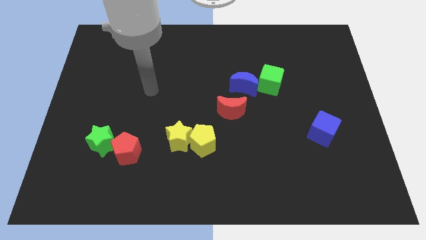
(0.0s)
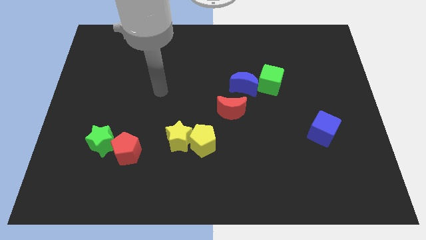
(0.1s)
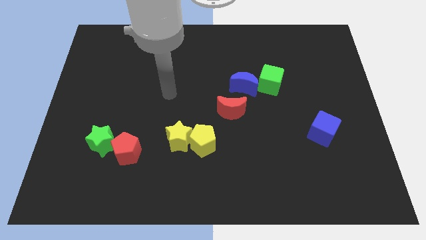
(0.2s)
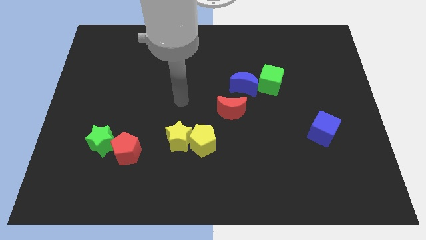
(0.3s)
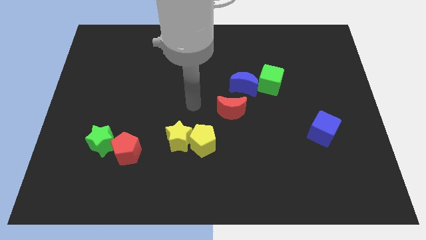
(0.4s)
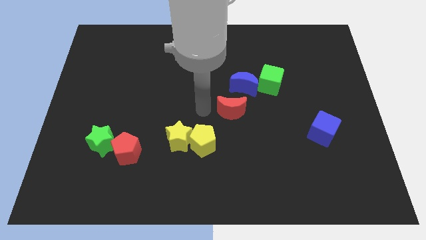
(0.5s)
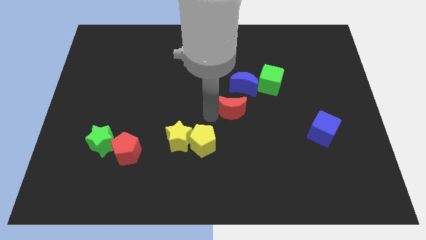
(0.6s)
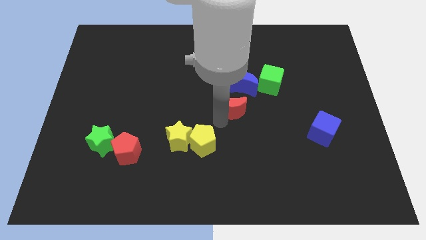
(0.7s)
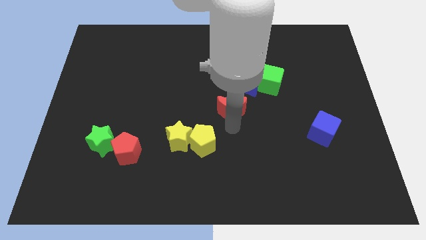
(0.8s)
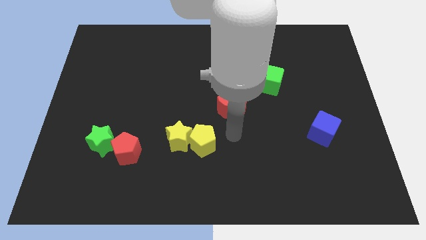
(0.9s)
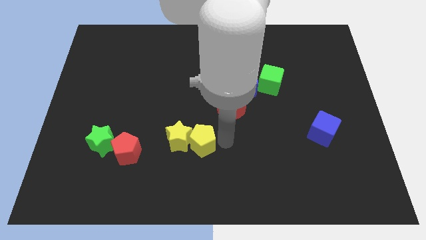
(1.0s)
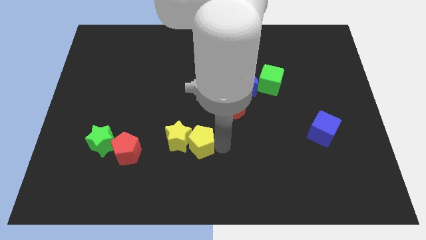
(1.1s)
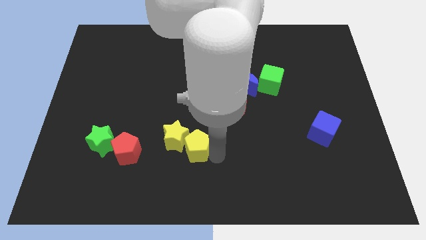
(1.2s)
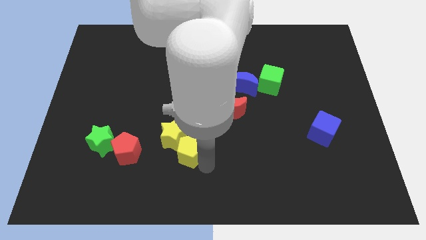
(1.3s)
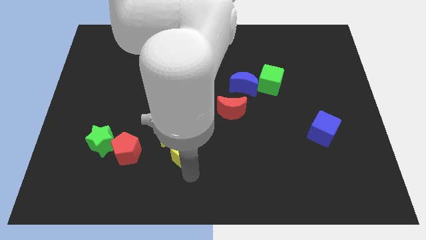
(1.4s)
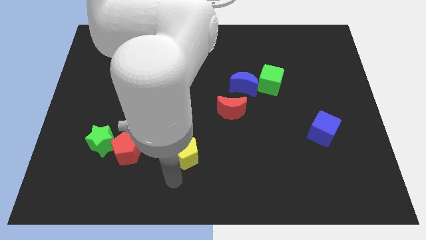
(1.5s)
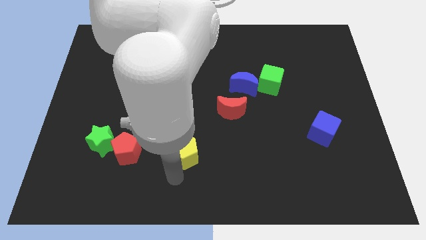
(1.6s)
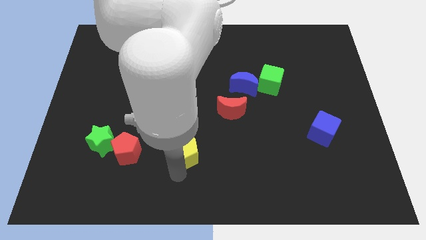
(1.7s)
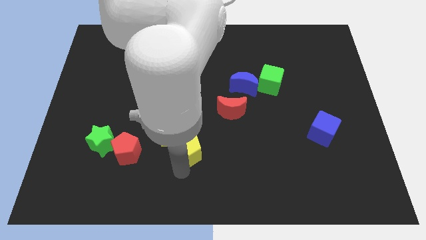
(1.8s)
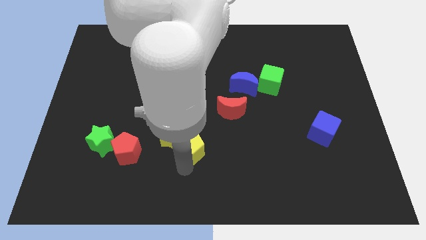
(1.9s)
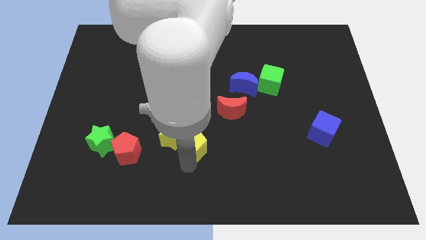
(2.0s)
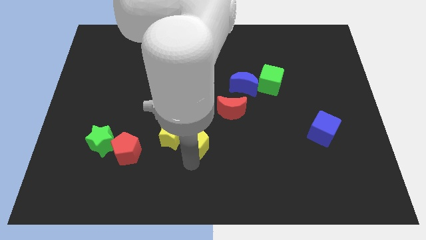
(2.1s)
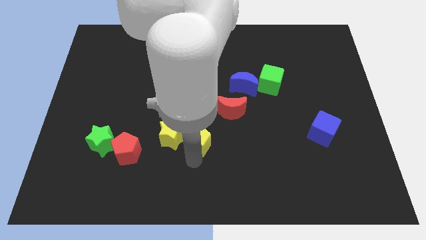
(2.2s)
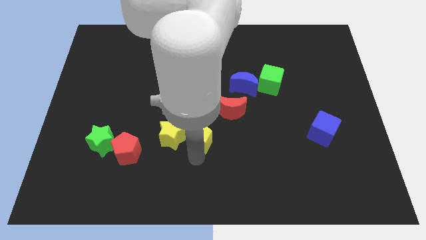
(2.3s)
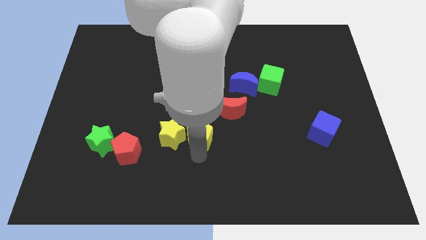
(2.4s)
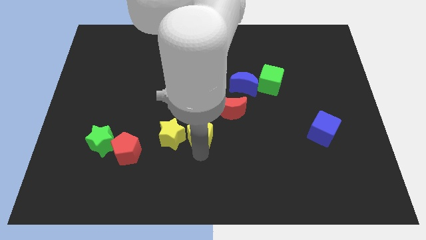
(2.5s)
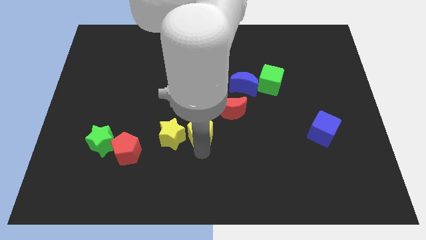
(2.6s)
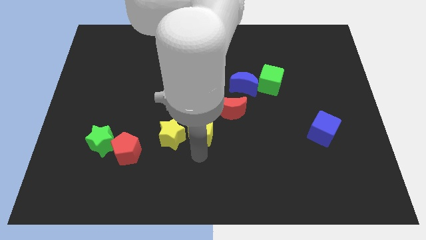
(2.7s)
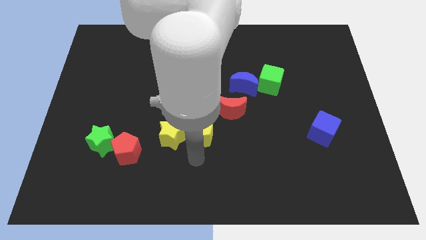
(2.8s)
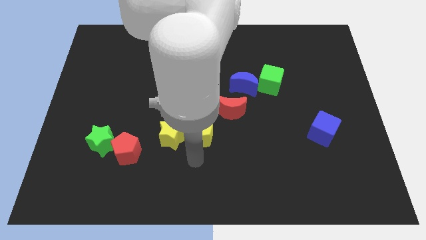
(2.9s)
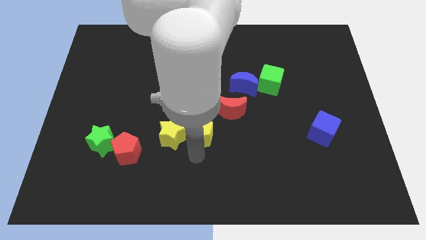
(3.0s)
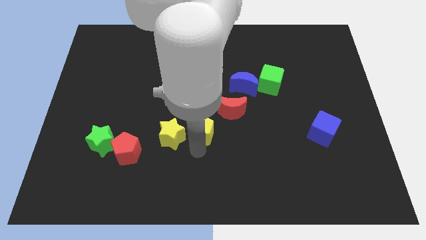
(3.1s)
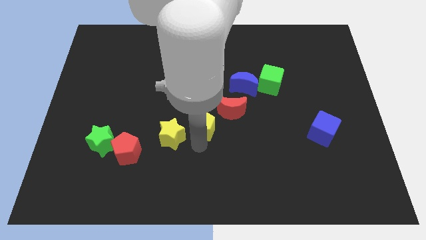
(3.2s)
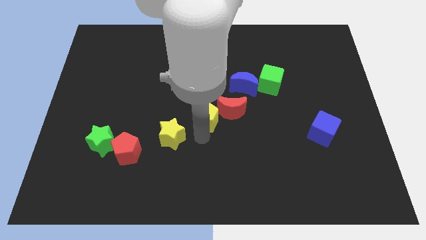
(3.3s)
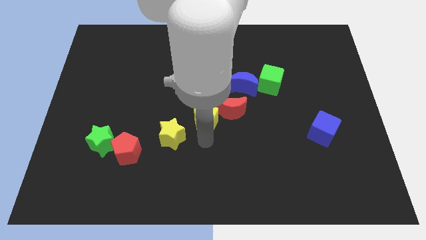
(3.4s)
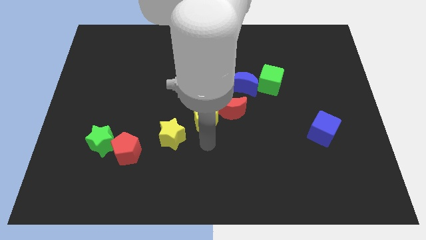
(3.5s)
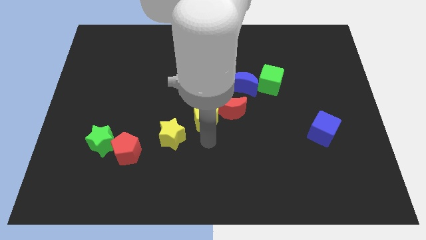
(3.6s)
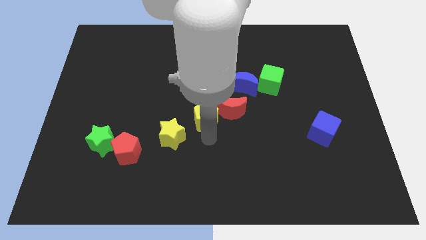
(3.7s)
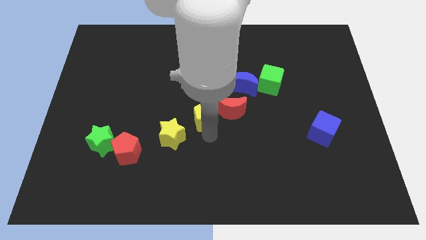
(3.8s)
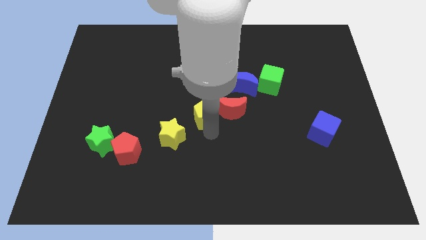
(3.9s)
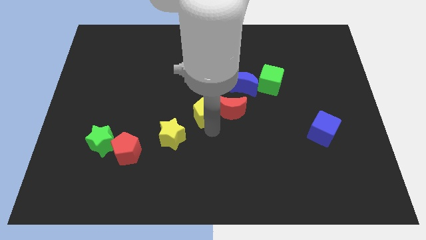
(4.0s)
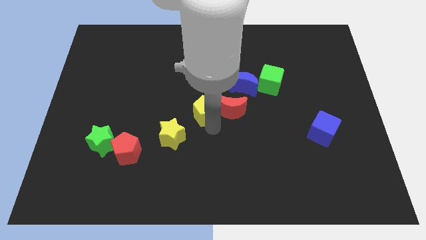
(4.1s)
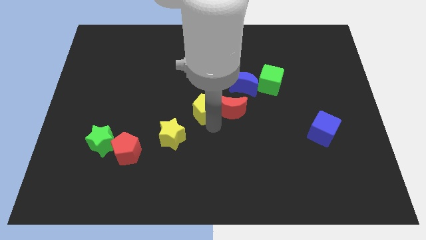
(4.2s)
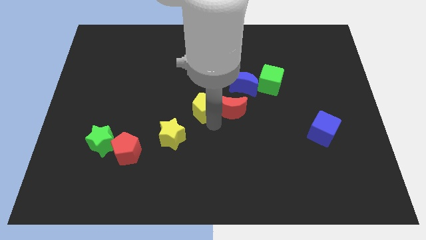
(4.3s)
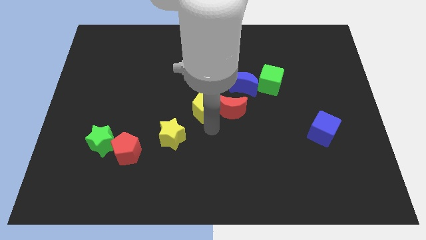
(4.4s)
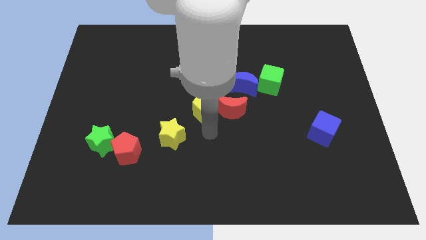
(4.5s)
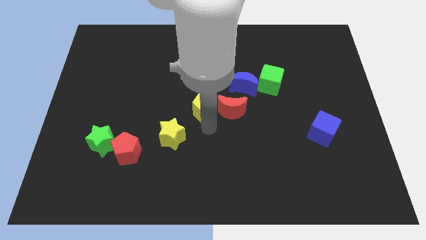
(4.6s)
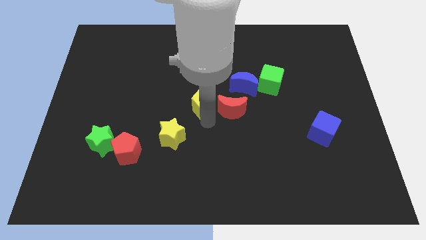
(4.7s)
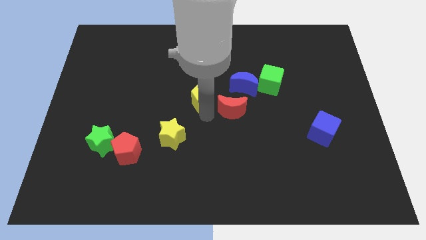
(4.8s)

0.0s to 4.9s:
slide the yellow pentagon left of the blue moon

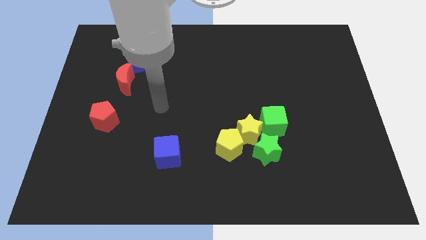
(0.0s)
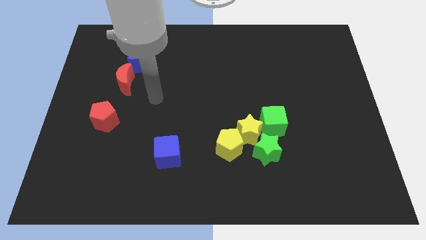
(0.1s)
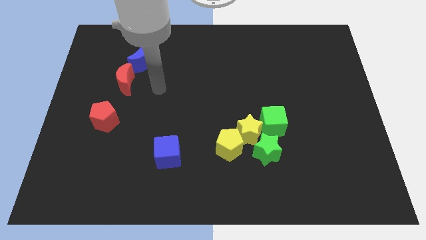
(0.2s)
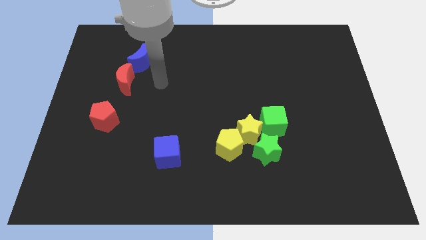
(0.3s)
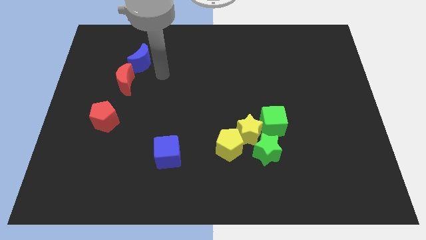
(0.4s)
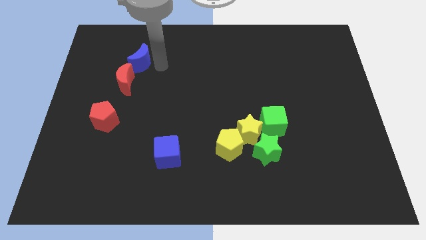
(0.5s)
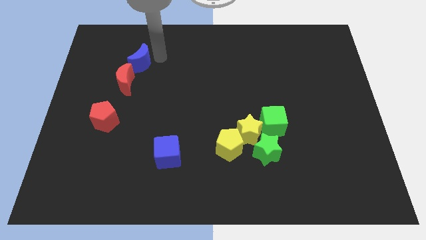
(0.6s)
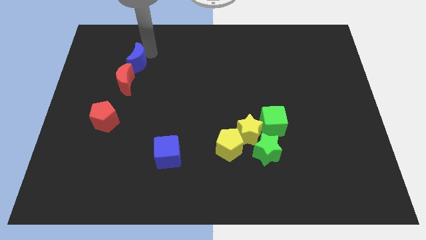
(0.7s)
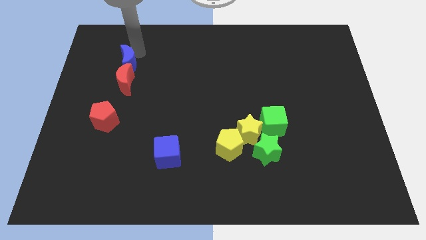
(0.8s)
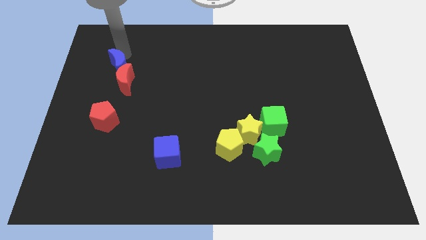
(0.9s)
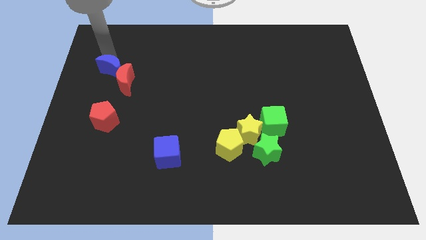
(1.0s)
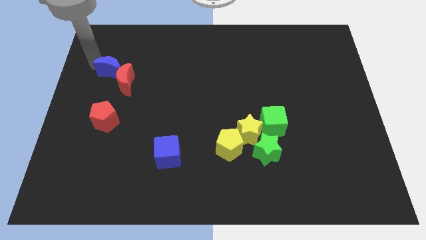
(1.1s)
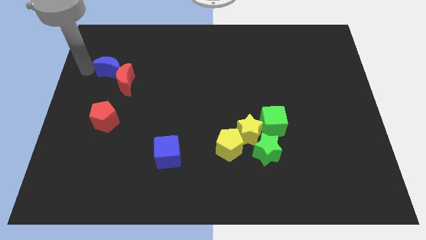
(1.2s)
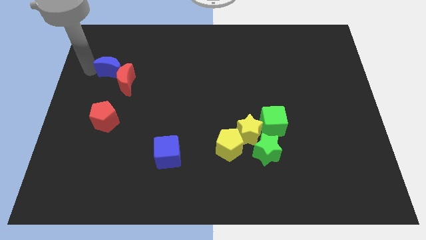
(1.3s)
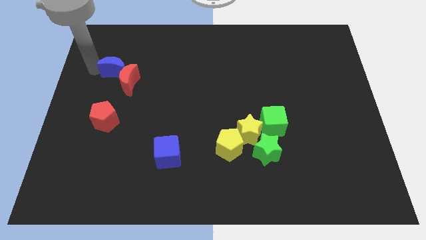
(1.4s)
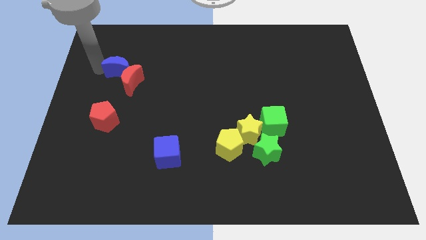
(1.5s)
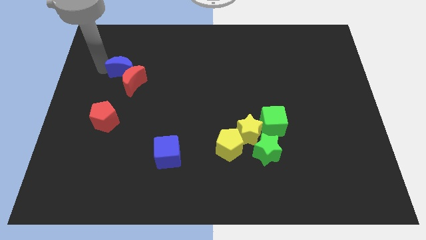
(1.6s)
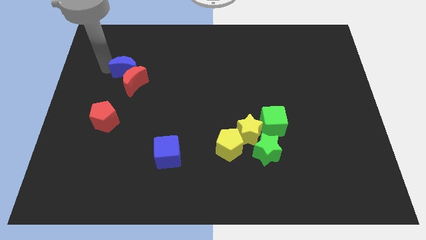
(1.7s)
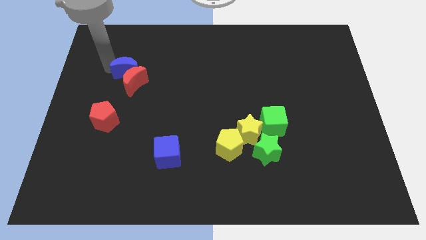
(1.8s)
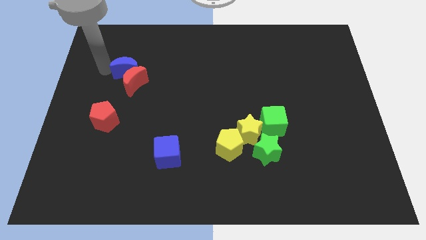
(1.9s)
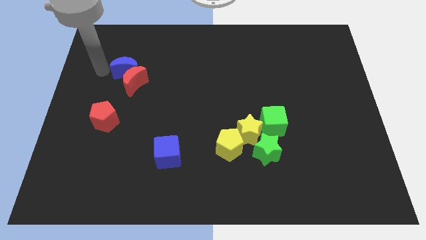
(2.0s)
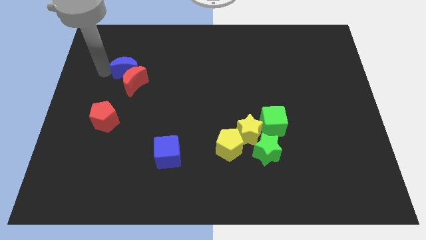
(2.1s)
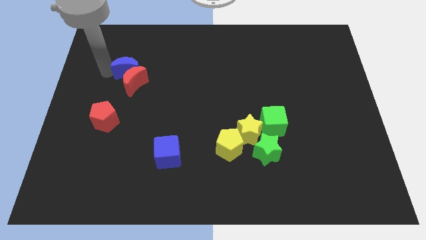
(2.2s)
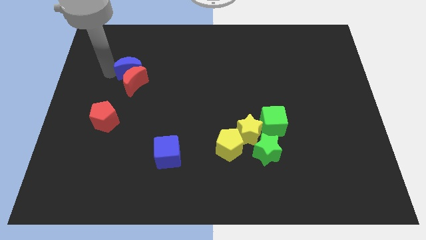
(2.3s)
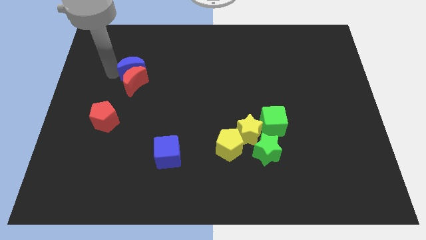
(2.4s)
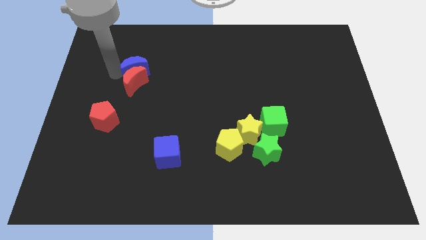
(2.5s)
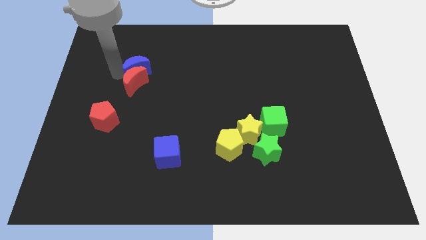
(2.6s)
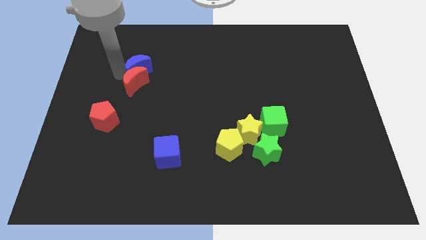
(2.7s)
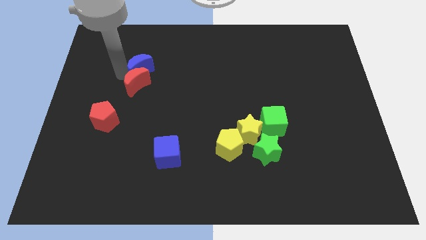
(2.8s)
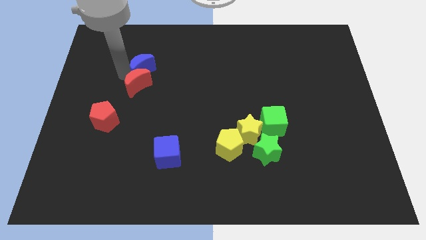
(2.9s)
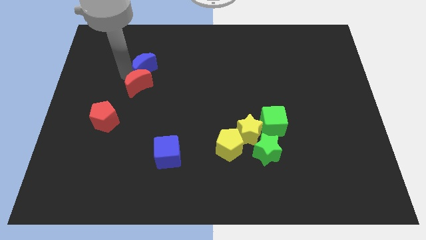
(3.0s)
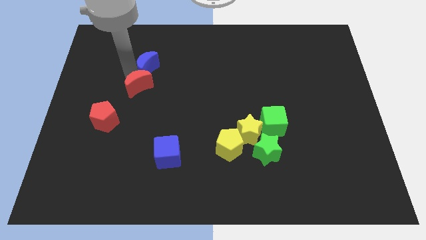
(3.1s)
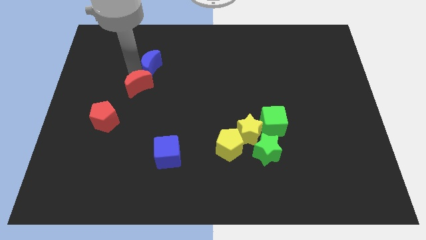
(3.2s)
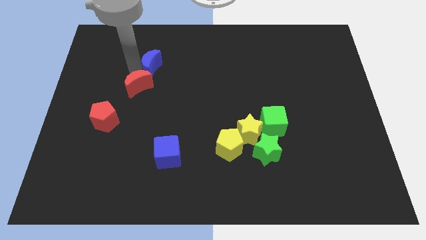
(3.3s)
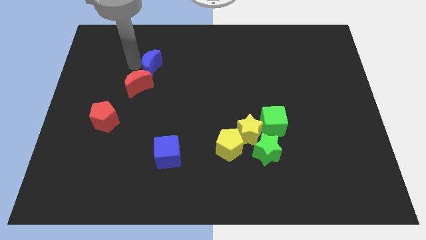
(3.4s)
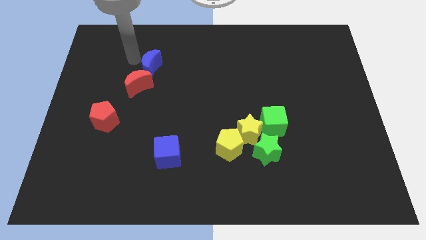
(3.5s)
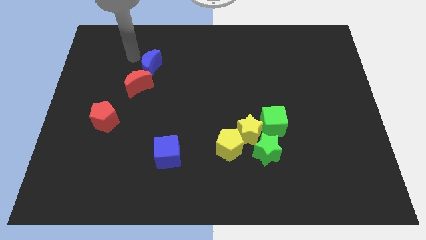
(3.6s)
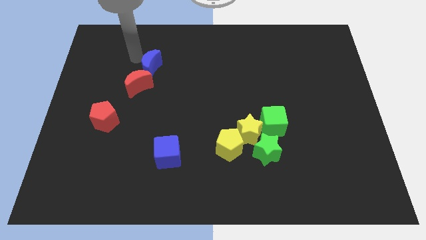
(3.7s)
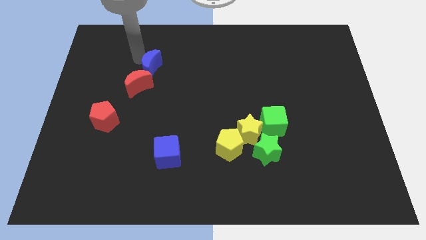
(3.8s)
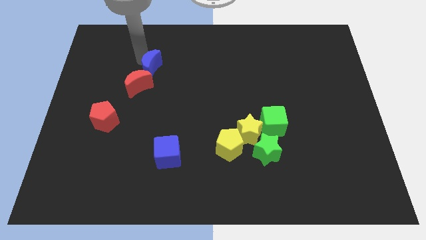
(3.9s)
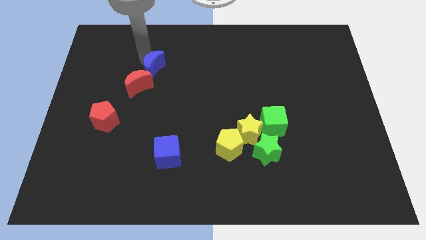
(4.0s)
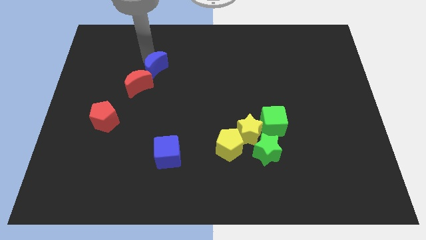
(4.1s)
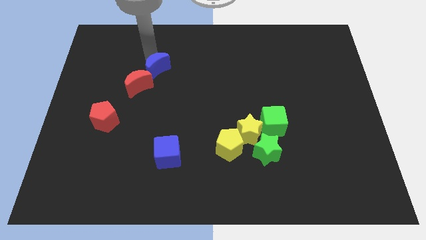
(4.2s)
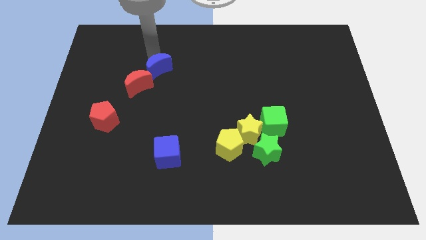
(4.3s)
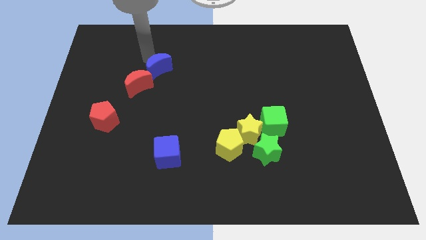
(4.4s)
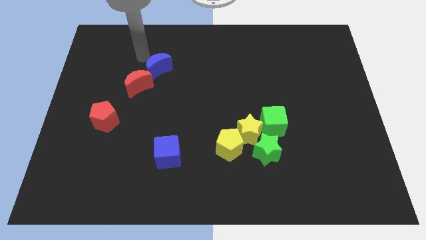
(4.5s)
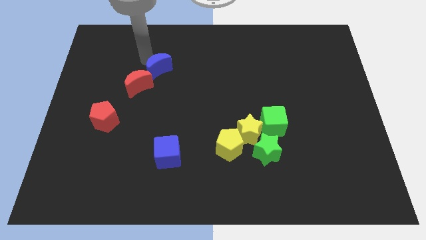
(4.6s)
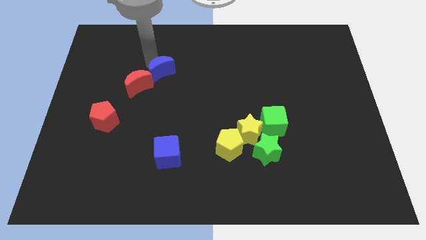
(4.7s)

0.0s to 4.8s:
move the blue moon to the right of the red moon
